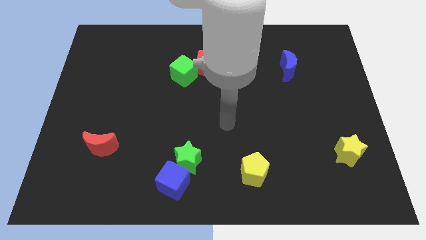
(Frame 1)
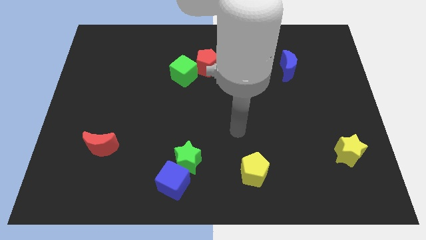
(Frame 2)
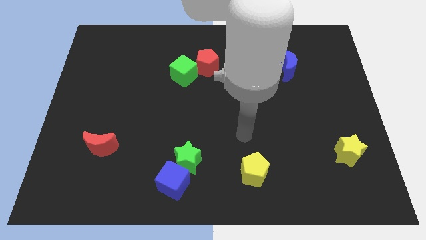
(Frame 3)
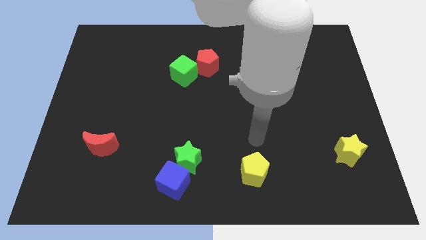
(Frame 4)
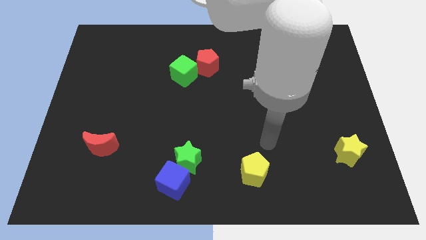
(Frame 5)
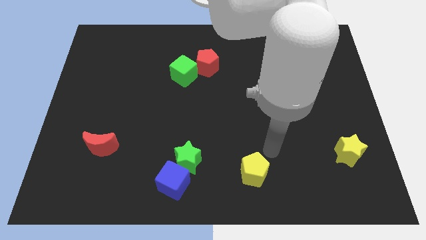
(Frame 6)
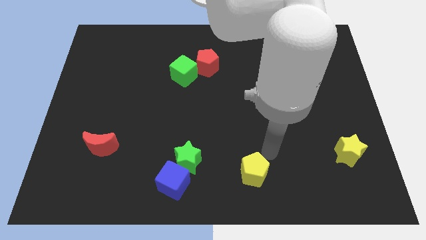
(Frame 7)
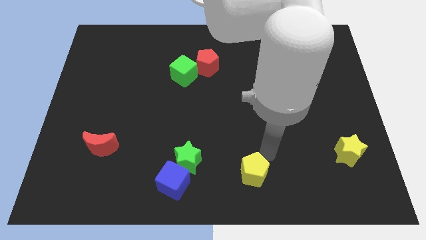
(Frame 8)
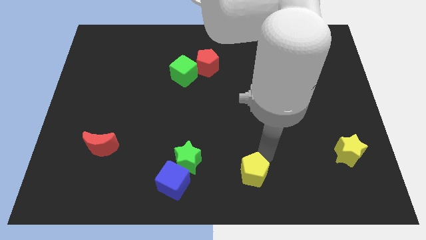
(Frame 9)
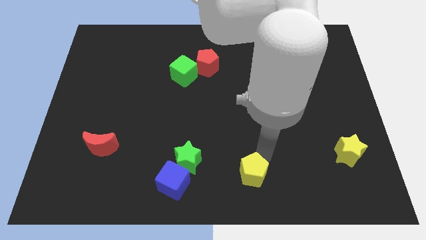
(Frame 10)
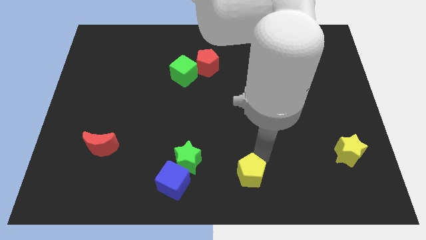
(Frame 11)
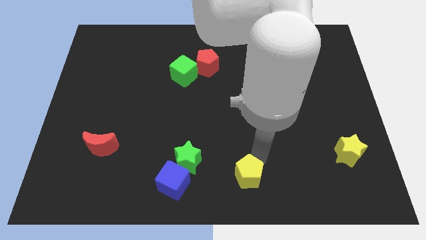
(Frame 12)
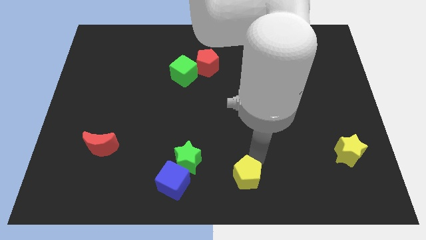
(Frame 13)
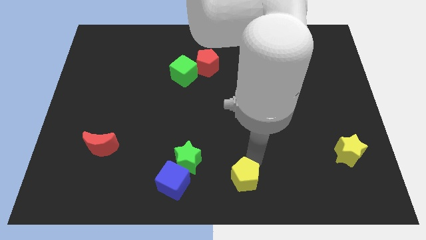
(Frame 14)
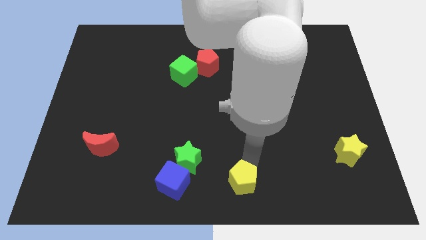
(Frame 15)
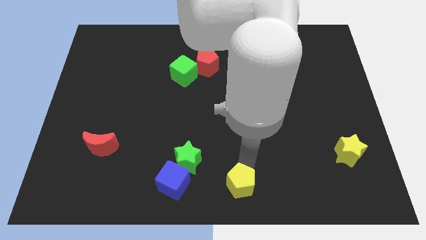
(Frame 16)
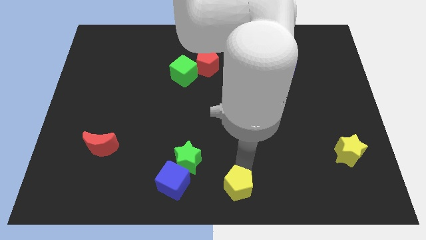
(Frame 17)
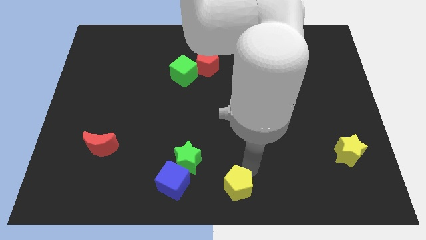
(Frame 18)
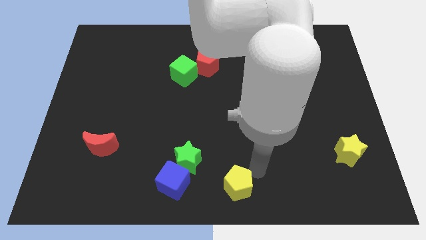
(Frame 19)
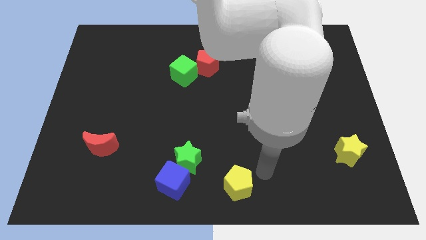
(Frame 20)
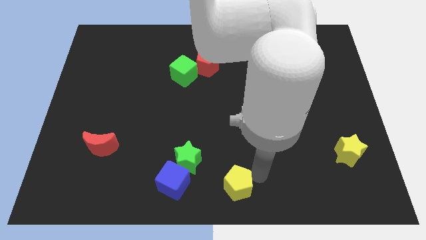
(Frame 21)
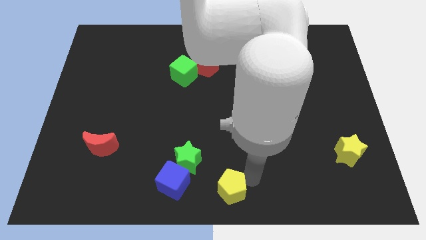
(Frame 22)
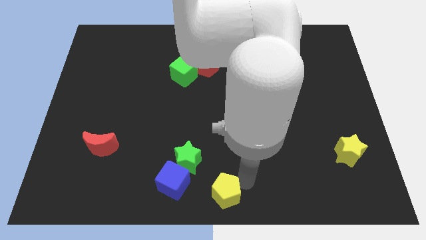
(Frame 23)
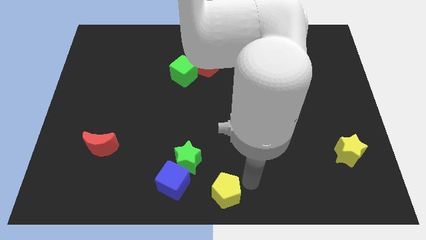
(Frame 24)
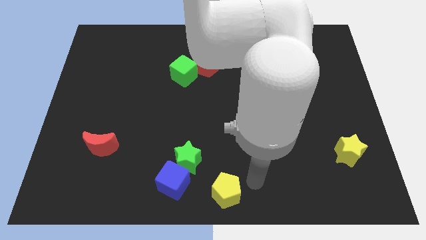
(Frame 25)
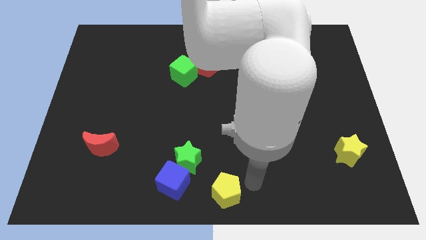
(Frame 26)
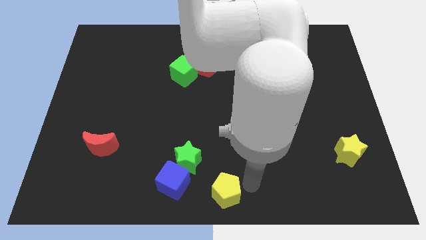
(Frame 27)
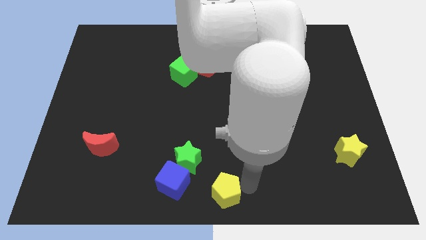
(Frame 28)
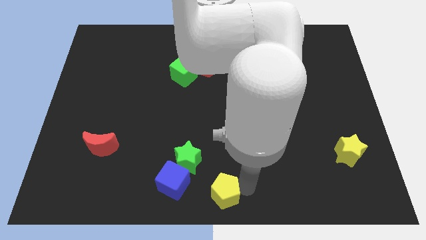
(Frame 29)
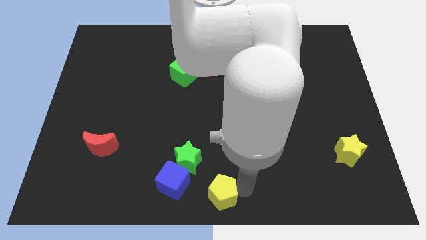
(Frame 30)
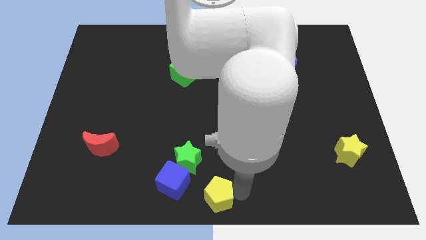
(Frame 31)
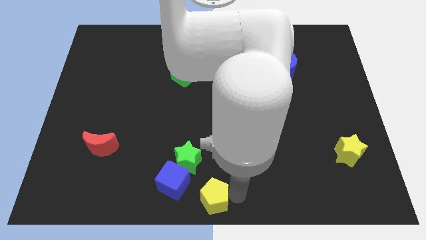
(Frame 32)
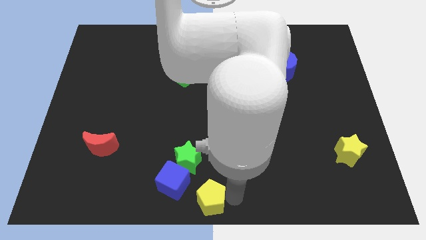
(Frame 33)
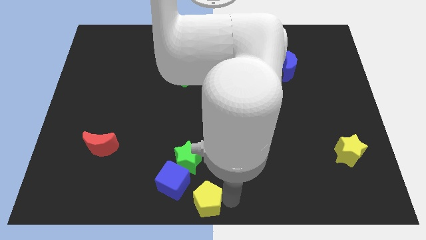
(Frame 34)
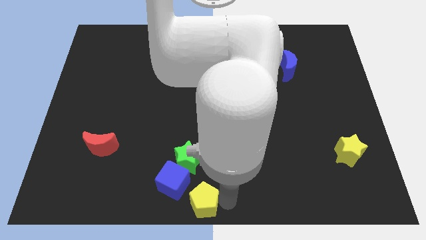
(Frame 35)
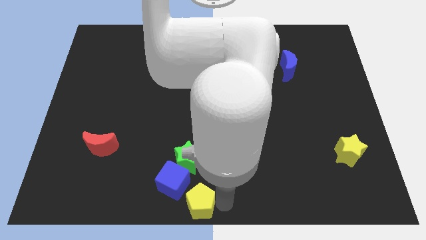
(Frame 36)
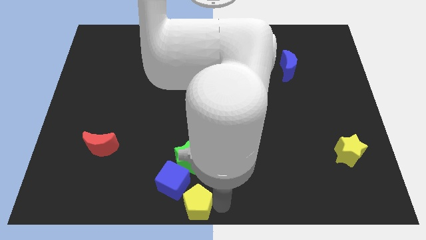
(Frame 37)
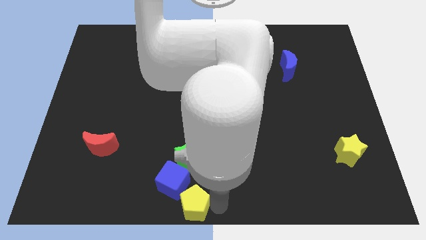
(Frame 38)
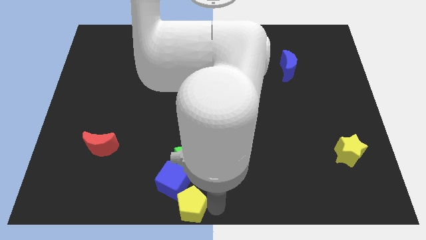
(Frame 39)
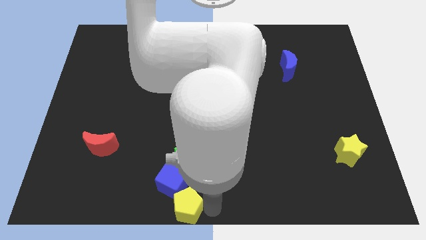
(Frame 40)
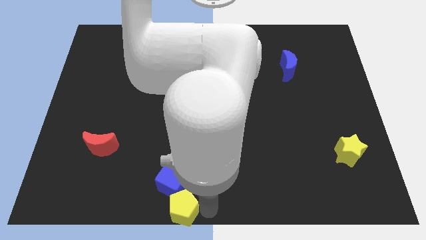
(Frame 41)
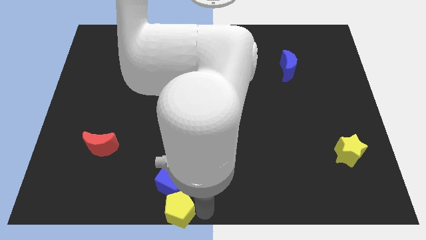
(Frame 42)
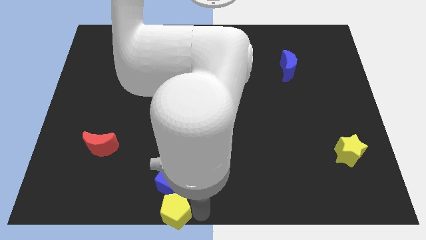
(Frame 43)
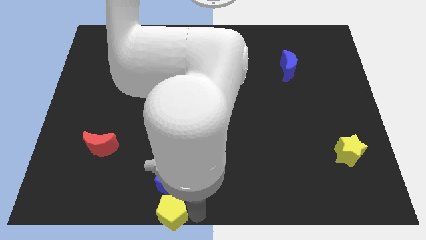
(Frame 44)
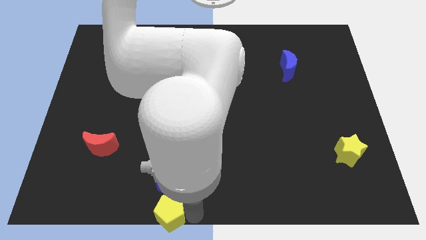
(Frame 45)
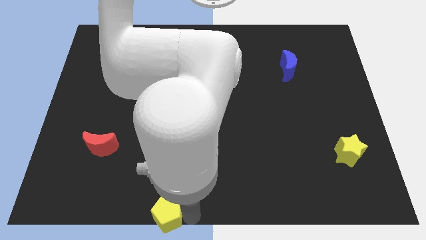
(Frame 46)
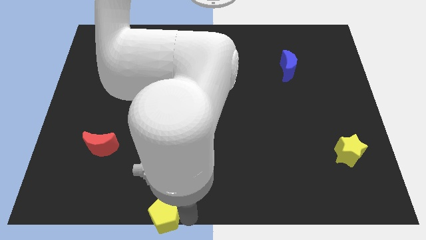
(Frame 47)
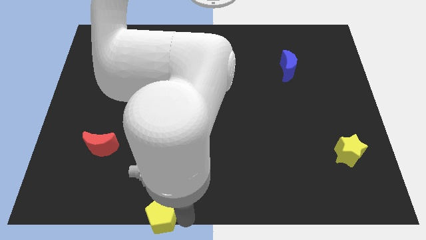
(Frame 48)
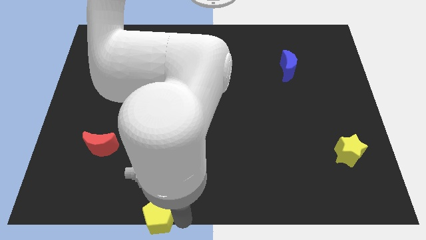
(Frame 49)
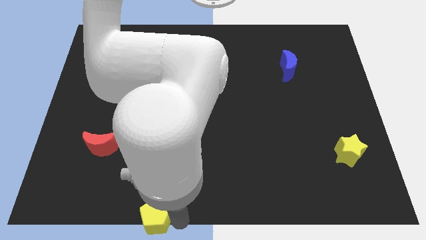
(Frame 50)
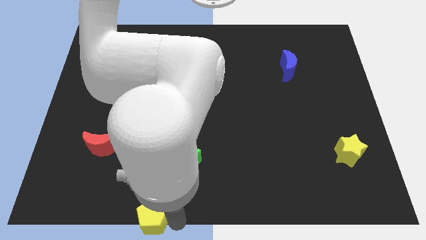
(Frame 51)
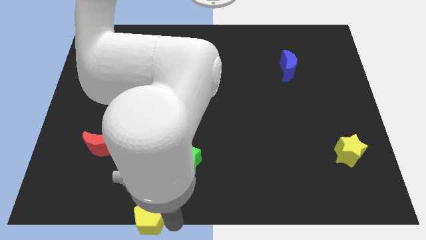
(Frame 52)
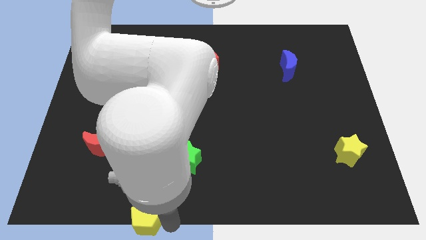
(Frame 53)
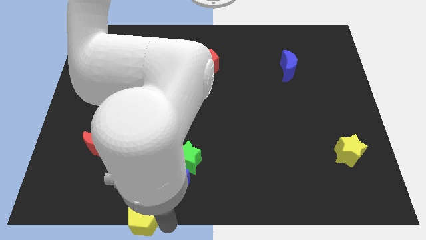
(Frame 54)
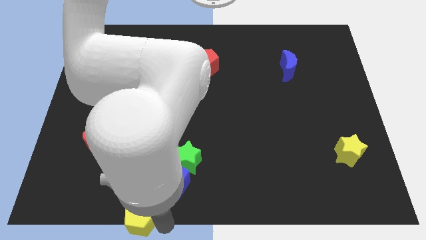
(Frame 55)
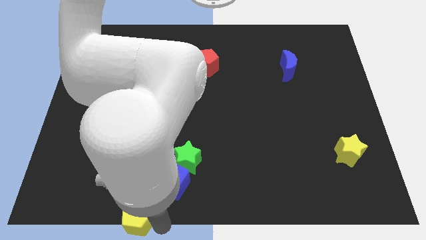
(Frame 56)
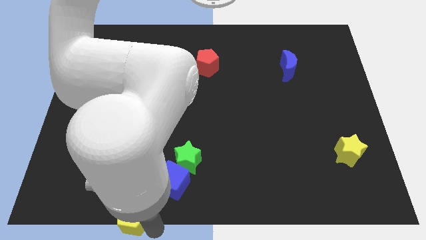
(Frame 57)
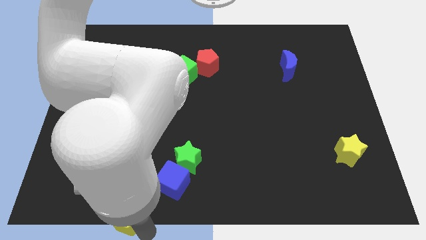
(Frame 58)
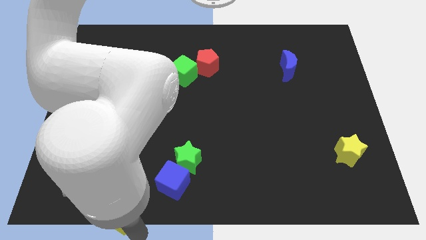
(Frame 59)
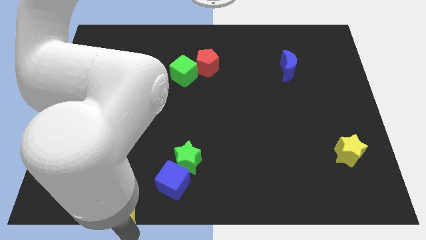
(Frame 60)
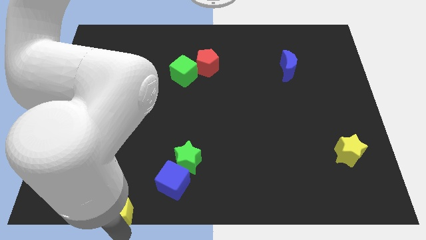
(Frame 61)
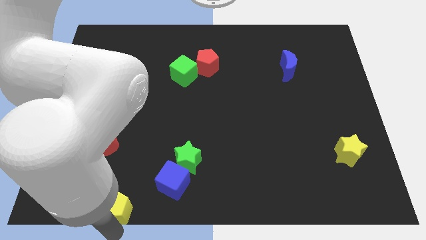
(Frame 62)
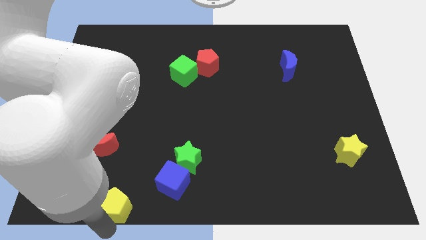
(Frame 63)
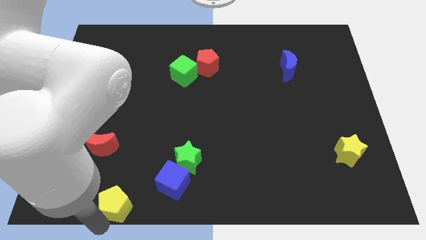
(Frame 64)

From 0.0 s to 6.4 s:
push the yellow pentagon to the left side of the blue cube

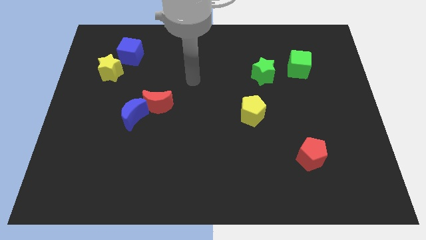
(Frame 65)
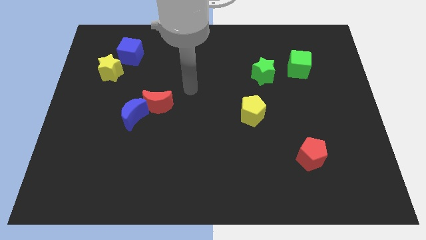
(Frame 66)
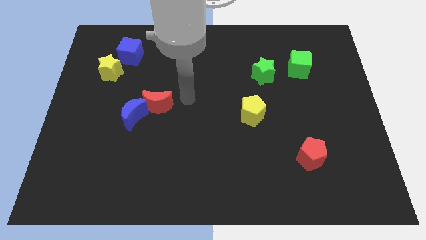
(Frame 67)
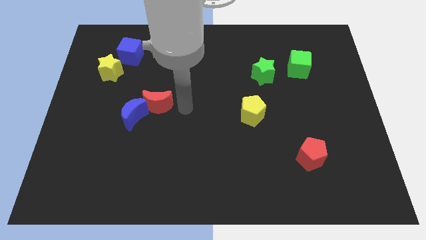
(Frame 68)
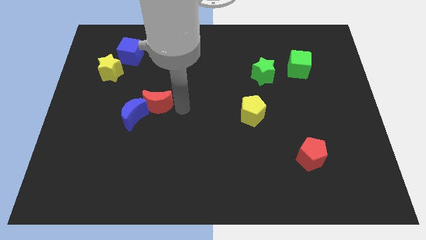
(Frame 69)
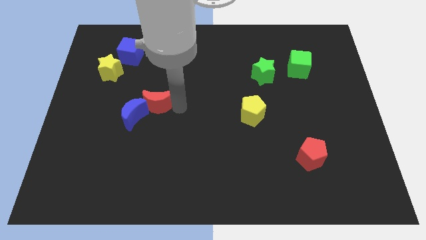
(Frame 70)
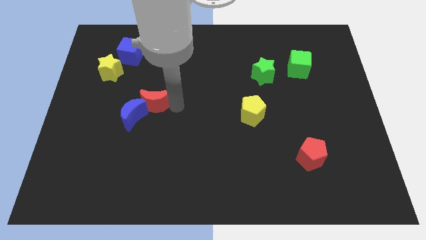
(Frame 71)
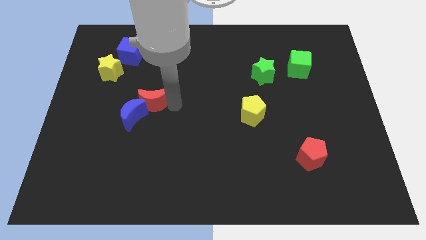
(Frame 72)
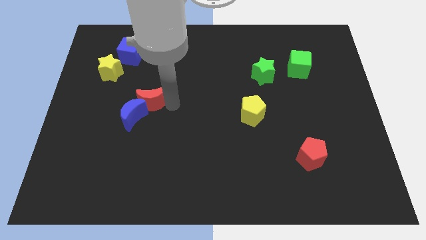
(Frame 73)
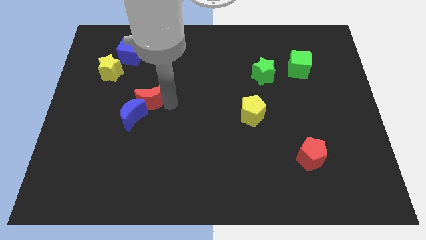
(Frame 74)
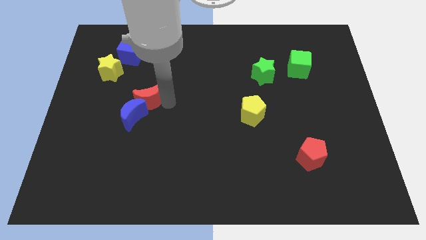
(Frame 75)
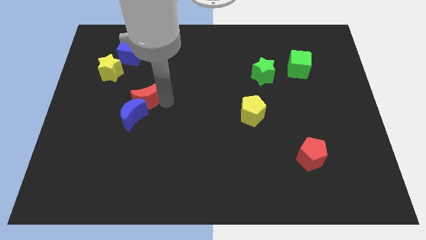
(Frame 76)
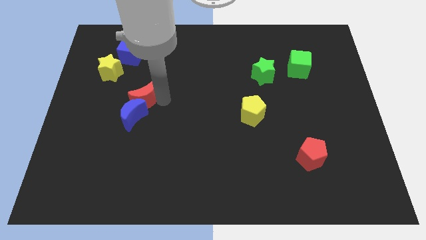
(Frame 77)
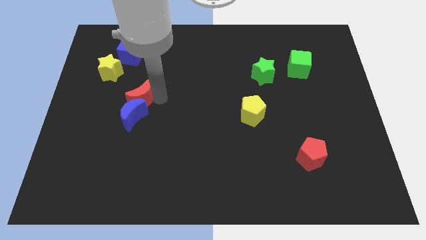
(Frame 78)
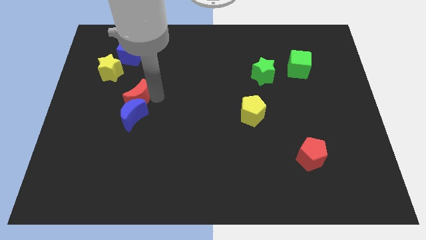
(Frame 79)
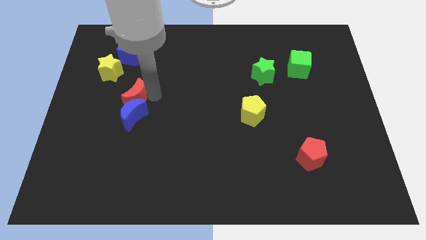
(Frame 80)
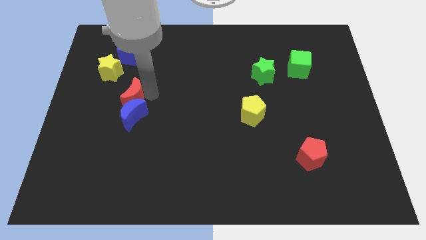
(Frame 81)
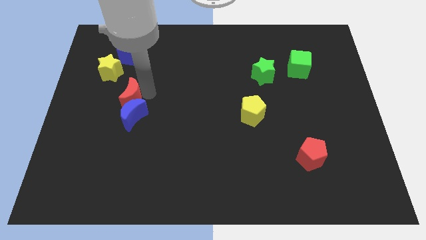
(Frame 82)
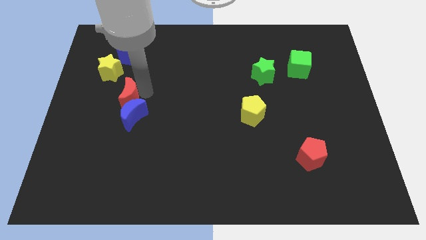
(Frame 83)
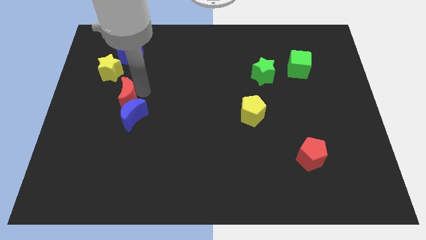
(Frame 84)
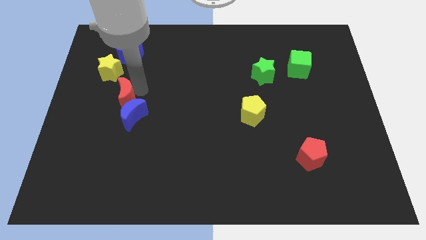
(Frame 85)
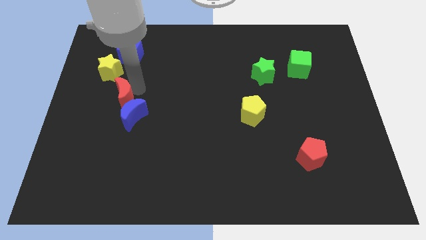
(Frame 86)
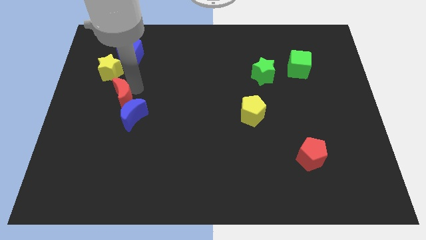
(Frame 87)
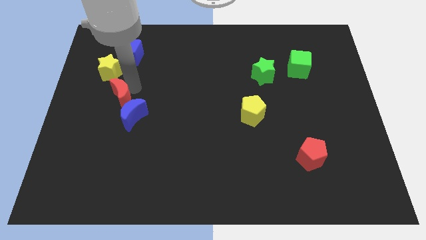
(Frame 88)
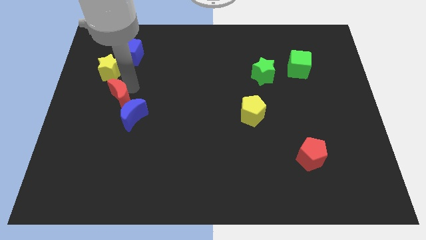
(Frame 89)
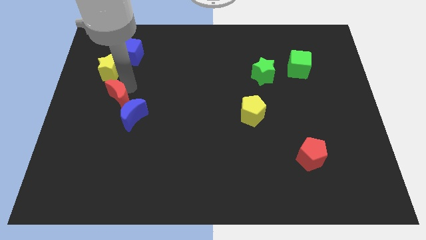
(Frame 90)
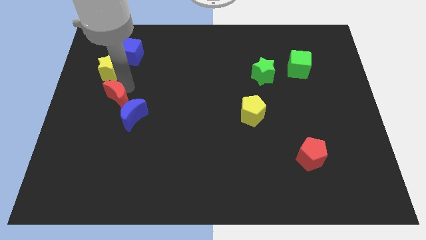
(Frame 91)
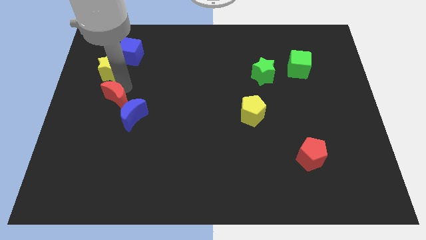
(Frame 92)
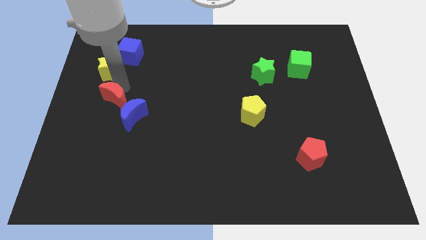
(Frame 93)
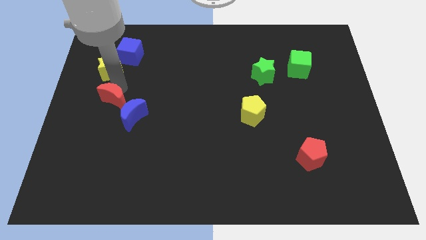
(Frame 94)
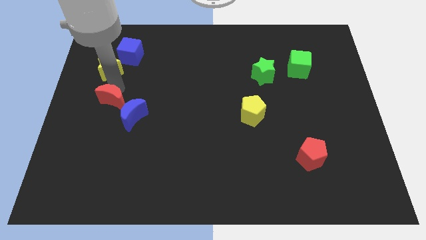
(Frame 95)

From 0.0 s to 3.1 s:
push the red moon left of the blue moon
